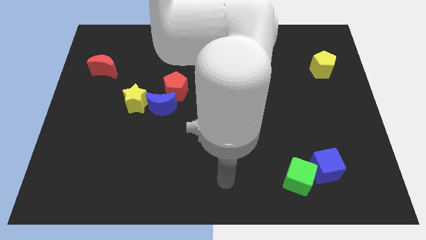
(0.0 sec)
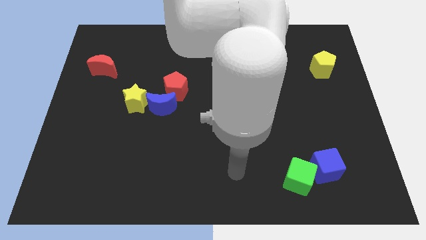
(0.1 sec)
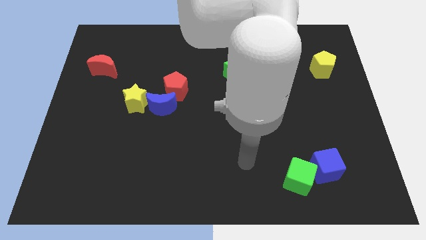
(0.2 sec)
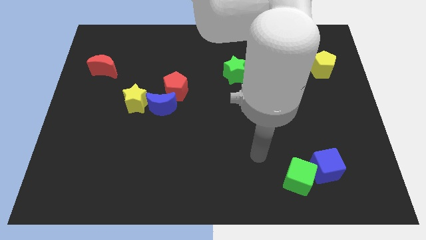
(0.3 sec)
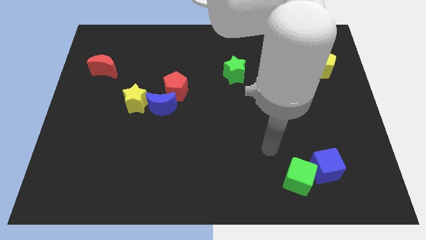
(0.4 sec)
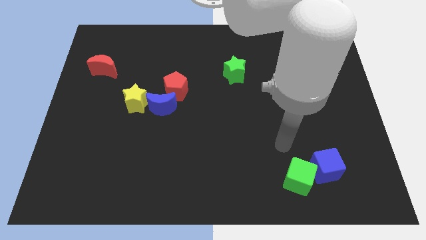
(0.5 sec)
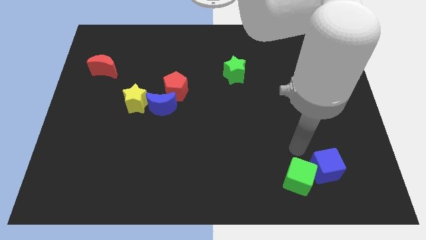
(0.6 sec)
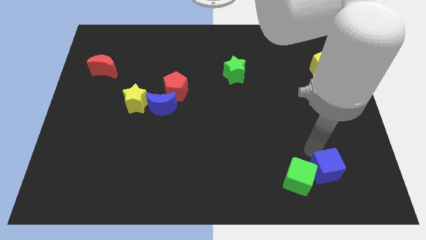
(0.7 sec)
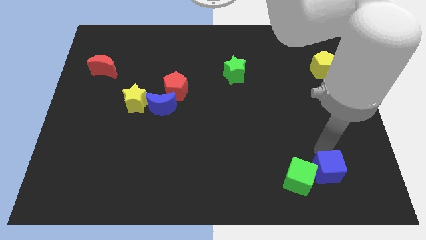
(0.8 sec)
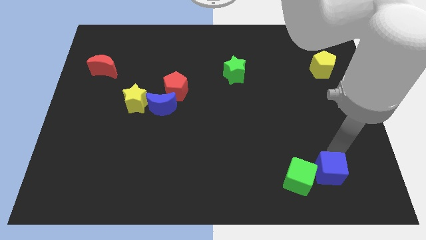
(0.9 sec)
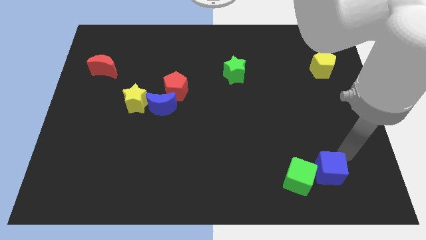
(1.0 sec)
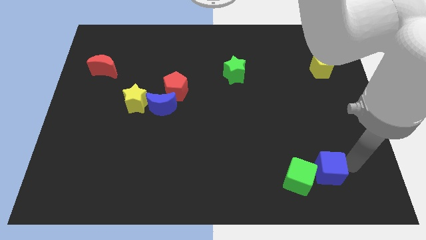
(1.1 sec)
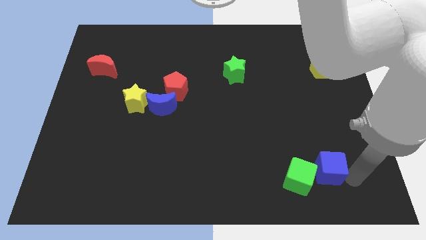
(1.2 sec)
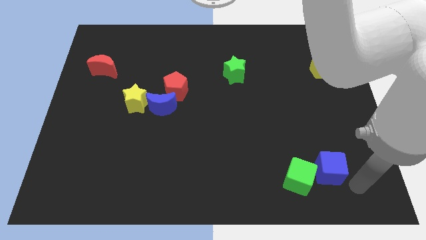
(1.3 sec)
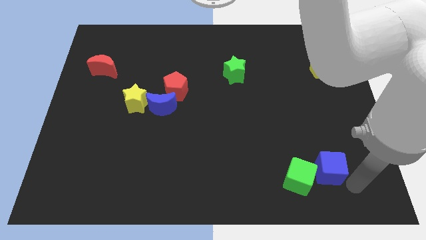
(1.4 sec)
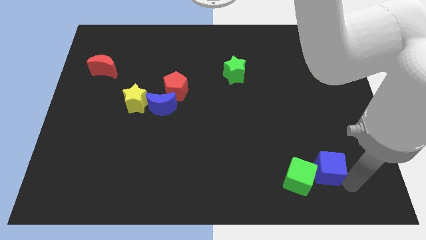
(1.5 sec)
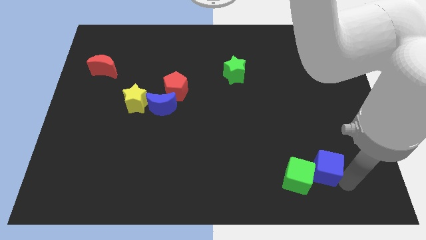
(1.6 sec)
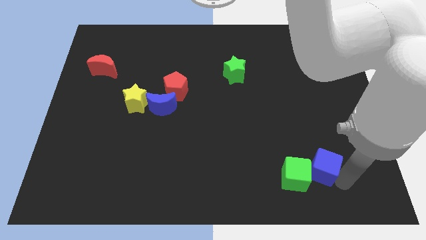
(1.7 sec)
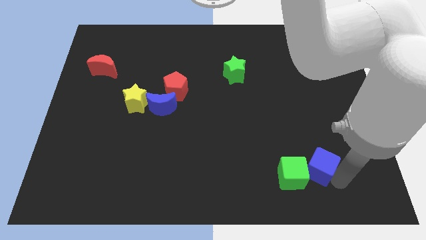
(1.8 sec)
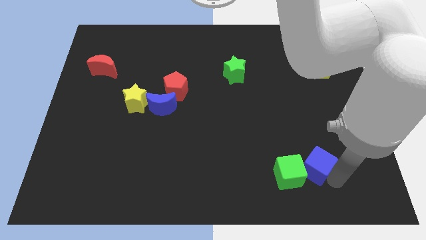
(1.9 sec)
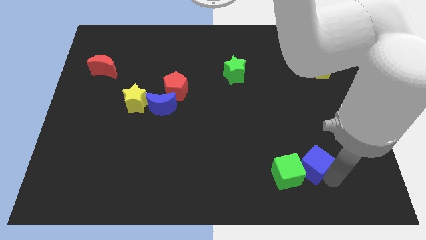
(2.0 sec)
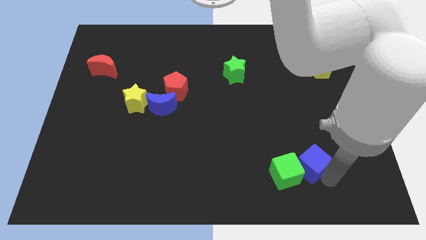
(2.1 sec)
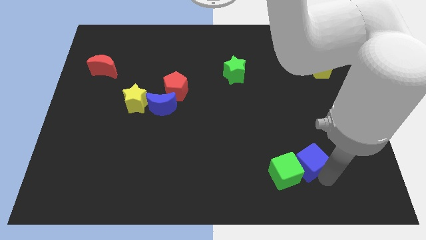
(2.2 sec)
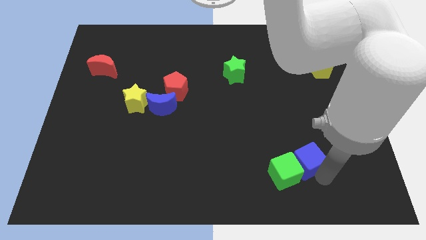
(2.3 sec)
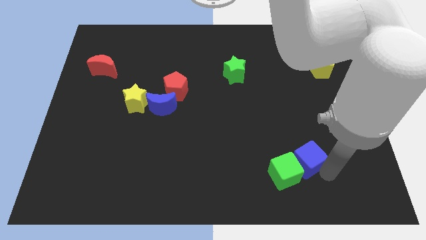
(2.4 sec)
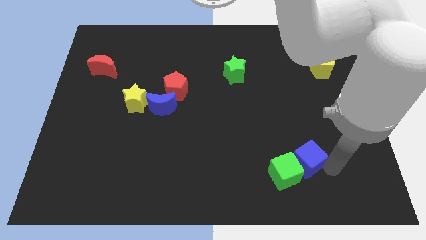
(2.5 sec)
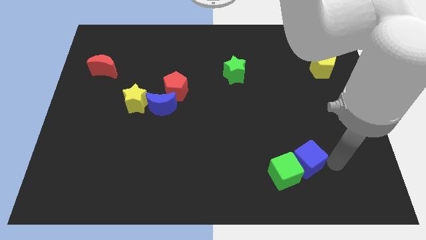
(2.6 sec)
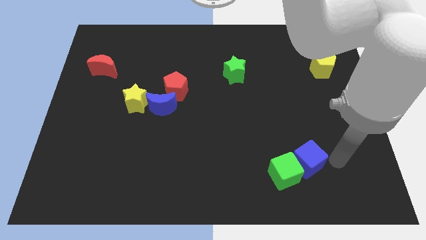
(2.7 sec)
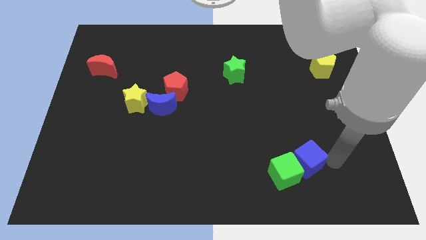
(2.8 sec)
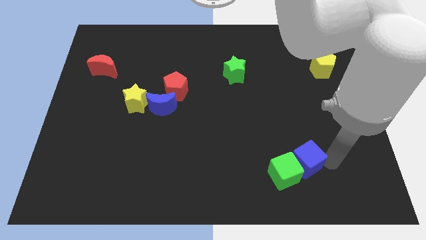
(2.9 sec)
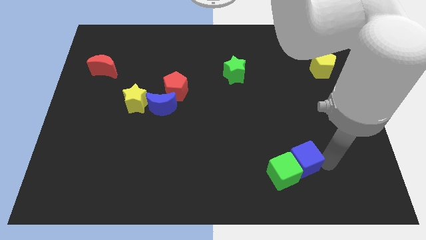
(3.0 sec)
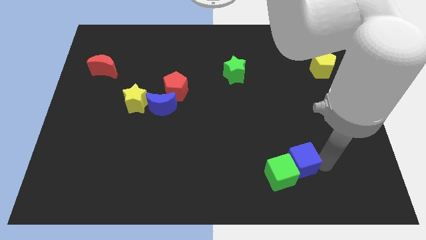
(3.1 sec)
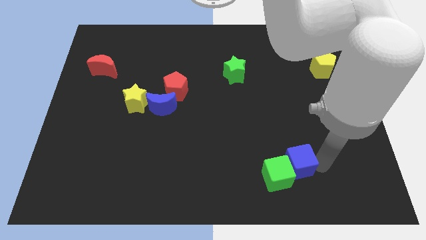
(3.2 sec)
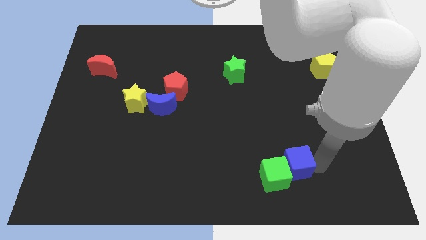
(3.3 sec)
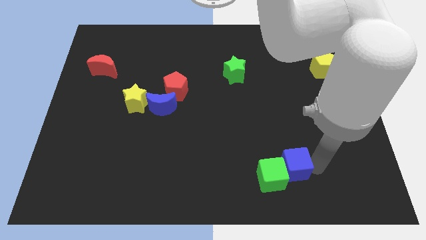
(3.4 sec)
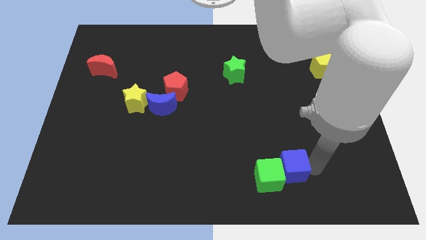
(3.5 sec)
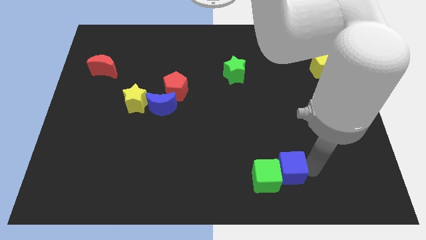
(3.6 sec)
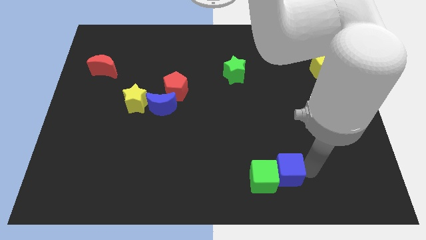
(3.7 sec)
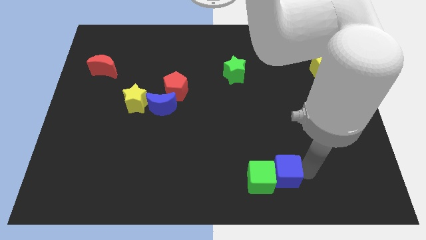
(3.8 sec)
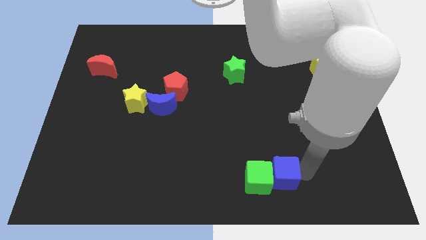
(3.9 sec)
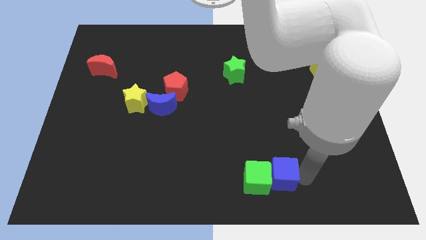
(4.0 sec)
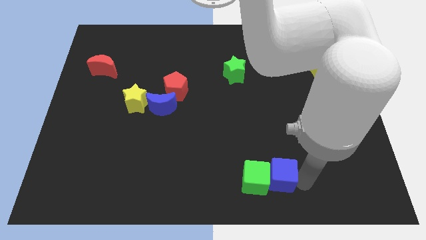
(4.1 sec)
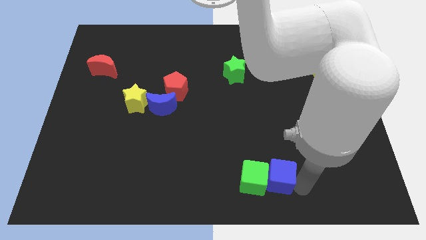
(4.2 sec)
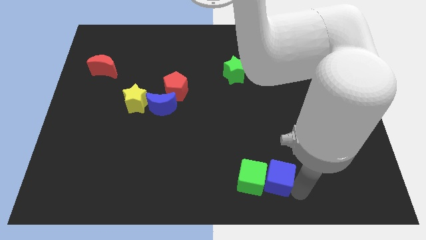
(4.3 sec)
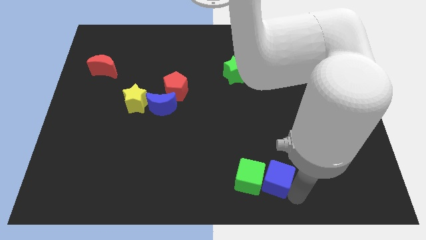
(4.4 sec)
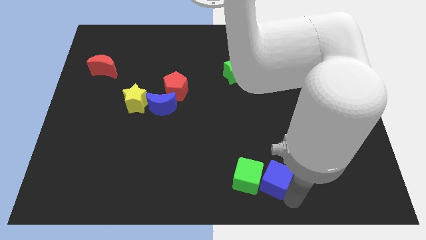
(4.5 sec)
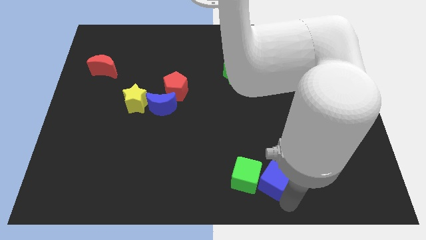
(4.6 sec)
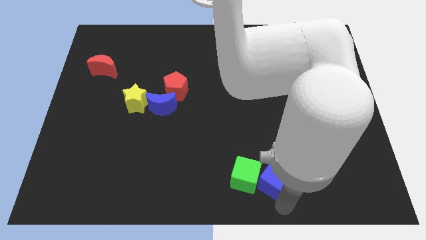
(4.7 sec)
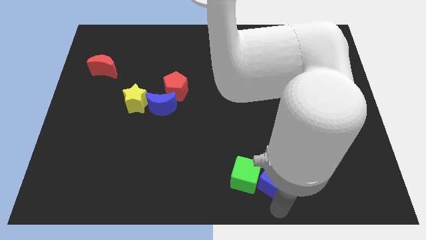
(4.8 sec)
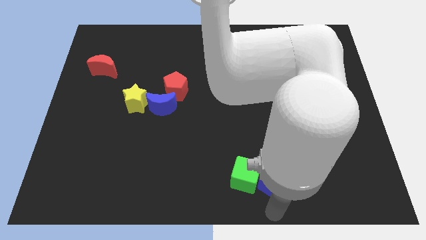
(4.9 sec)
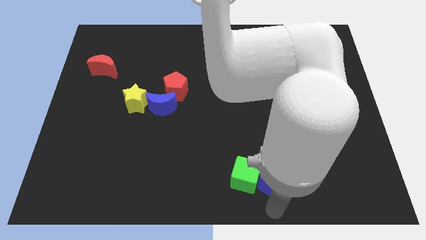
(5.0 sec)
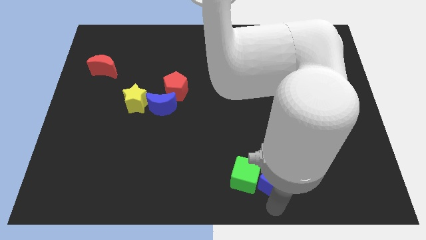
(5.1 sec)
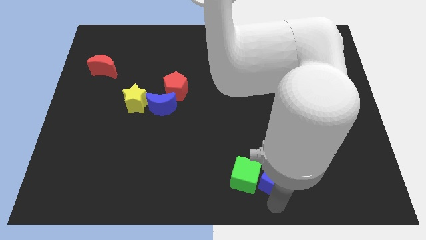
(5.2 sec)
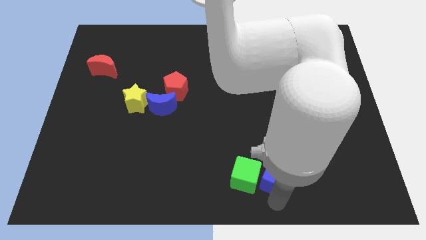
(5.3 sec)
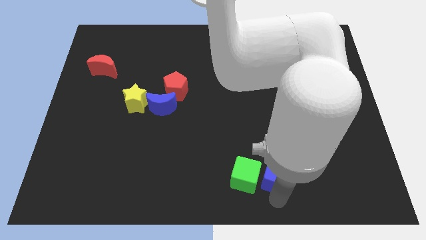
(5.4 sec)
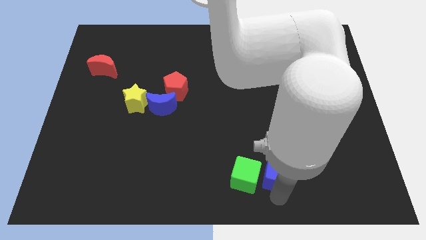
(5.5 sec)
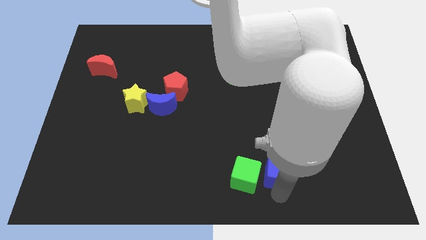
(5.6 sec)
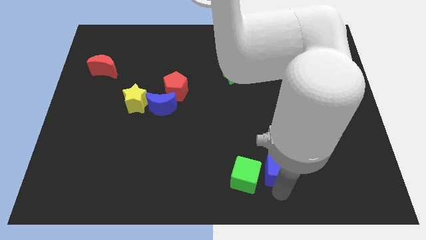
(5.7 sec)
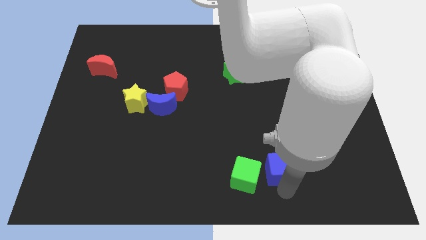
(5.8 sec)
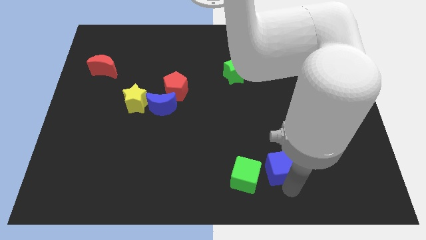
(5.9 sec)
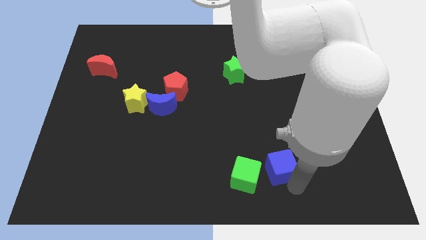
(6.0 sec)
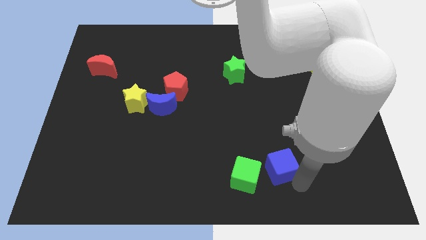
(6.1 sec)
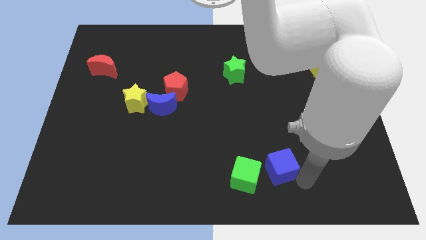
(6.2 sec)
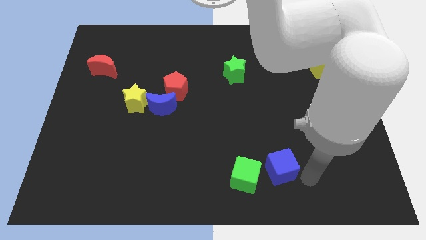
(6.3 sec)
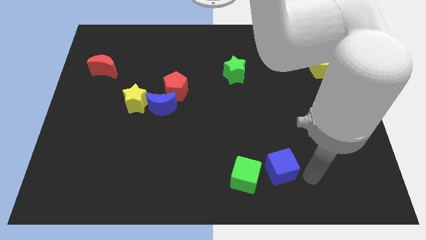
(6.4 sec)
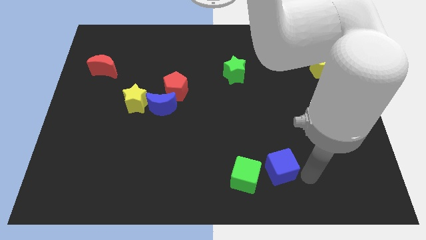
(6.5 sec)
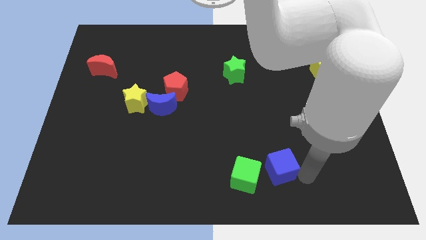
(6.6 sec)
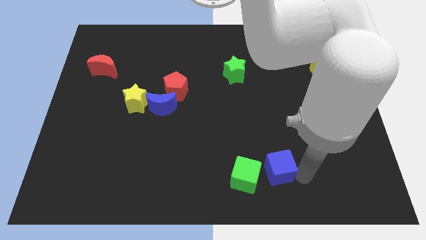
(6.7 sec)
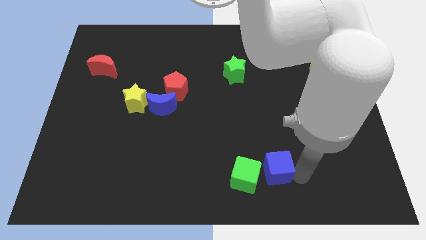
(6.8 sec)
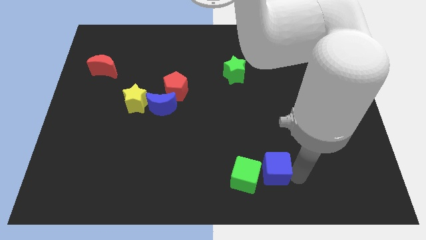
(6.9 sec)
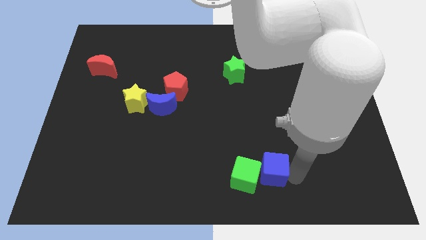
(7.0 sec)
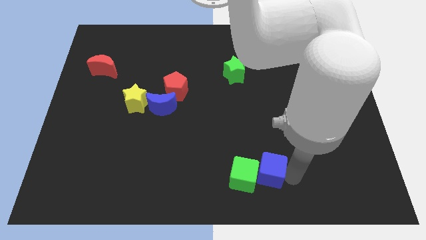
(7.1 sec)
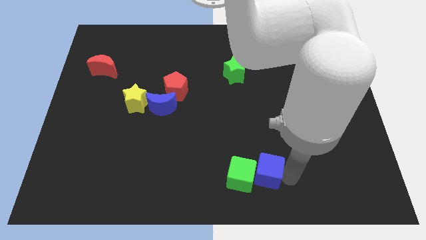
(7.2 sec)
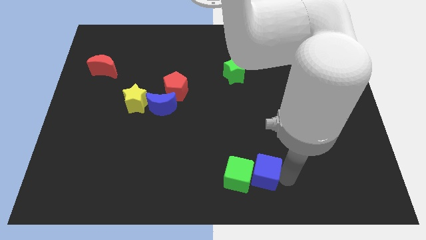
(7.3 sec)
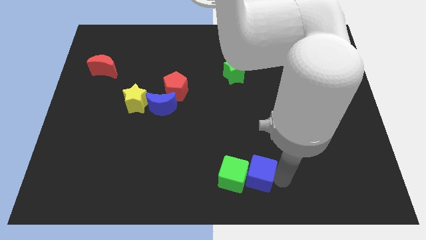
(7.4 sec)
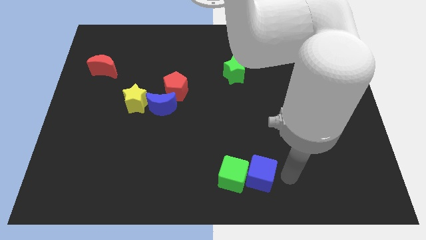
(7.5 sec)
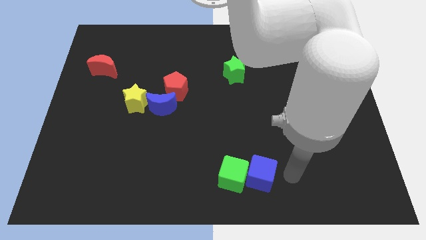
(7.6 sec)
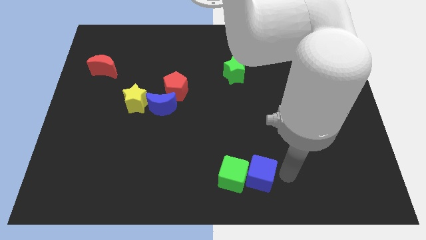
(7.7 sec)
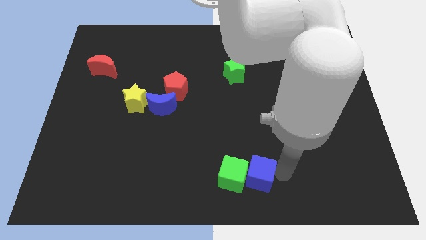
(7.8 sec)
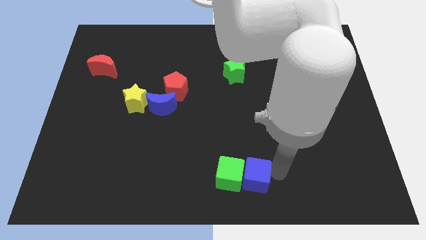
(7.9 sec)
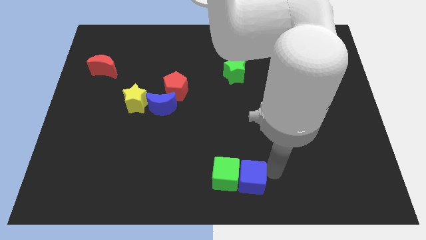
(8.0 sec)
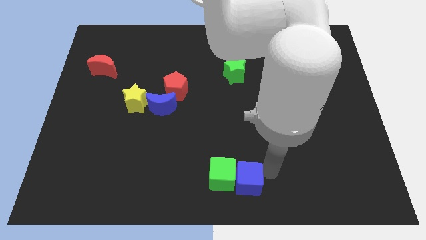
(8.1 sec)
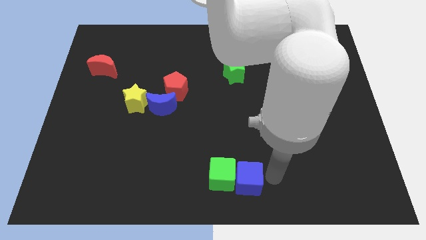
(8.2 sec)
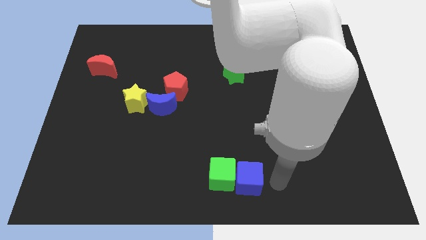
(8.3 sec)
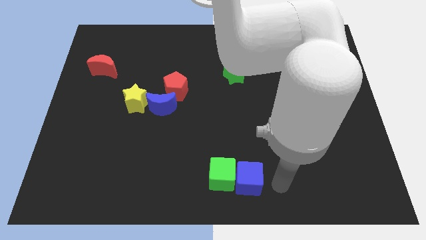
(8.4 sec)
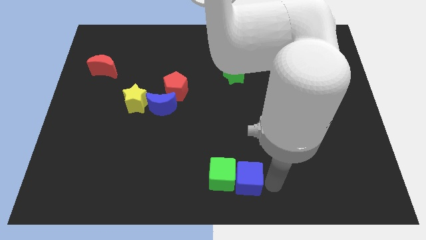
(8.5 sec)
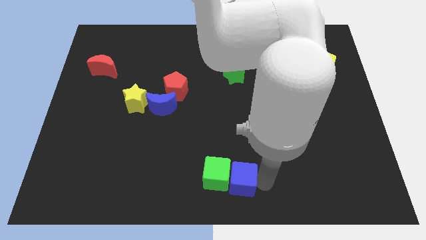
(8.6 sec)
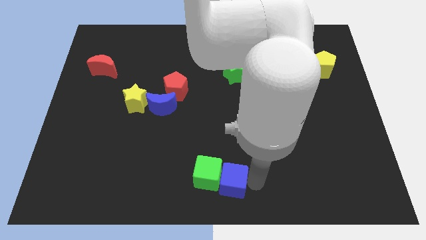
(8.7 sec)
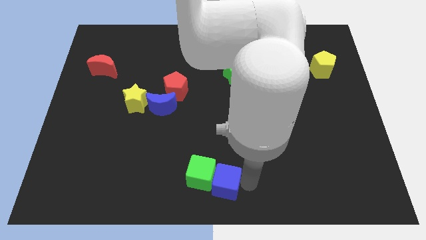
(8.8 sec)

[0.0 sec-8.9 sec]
push the blue cube to the left
